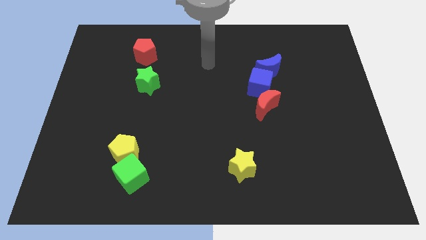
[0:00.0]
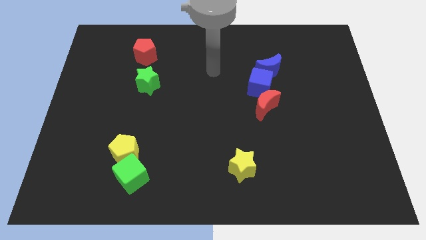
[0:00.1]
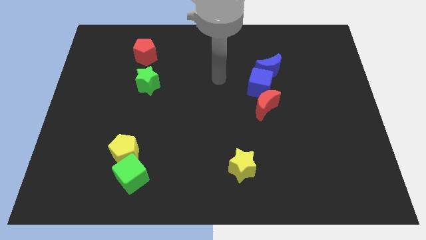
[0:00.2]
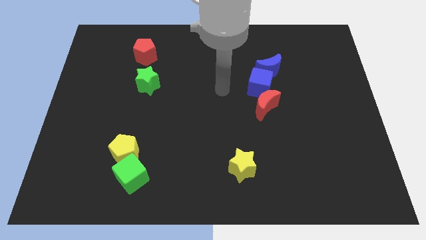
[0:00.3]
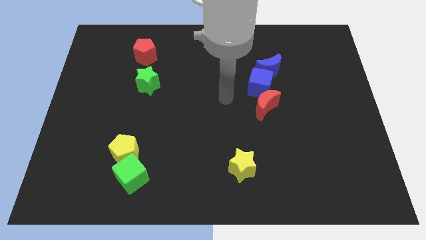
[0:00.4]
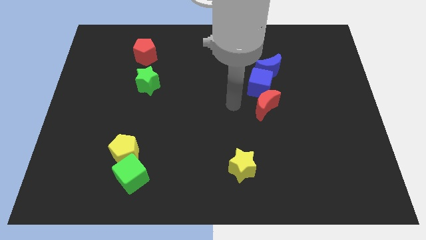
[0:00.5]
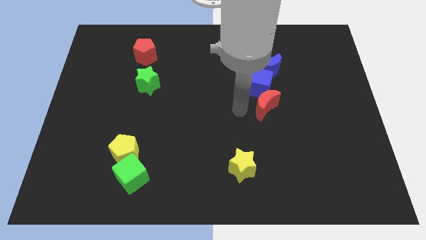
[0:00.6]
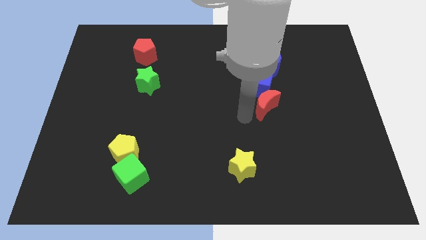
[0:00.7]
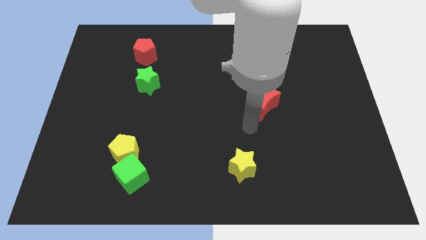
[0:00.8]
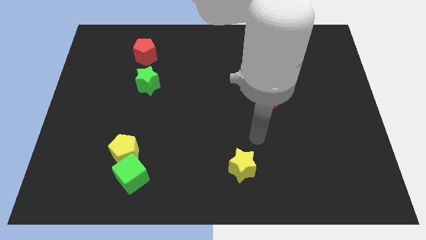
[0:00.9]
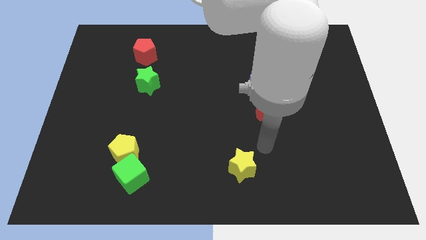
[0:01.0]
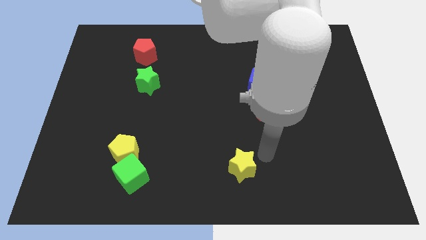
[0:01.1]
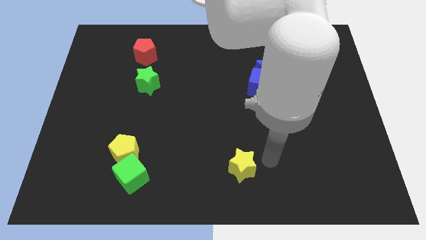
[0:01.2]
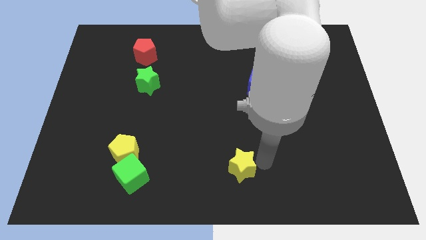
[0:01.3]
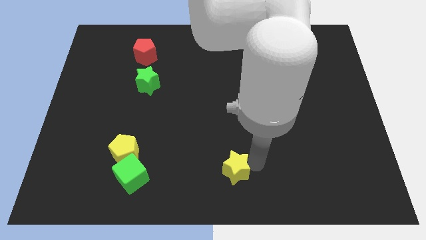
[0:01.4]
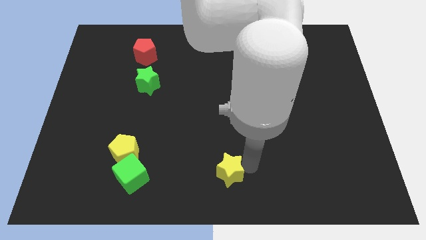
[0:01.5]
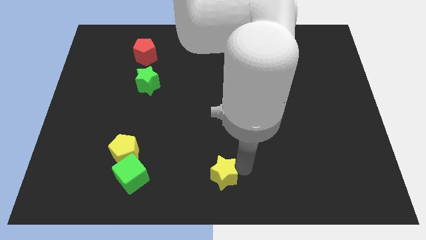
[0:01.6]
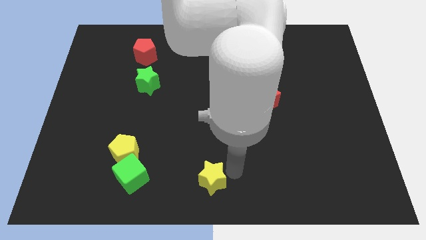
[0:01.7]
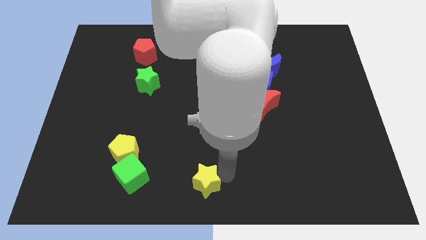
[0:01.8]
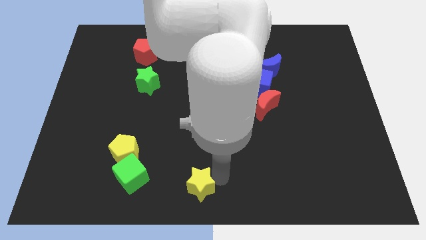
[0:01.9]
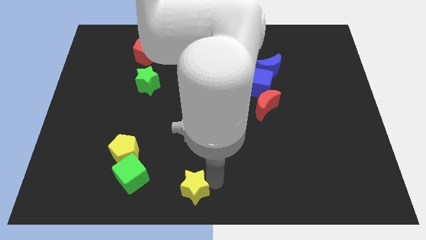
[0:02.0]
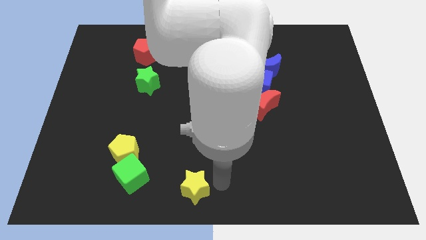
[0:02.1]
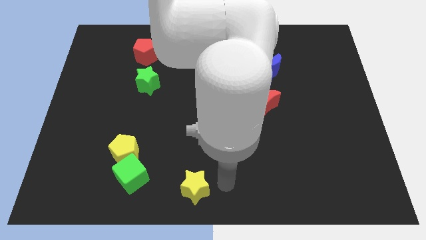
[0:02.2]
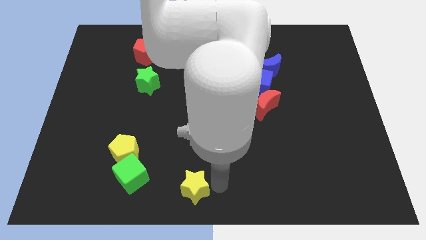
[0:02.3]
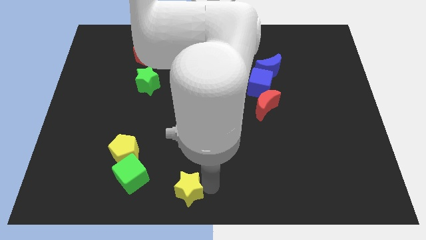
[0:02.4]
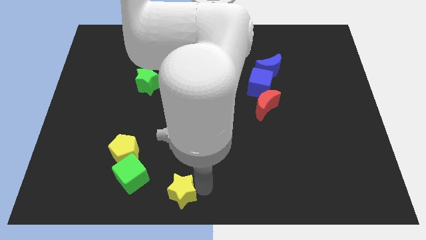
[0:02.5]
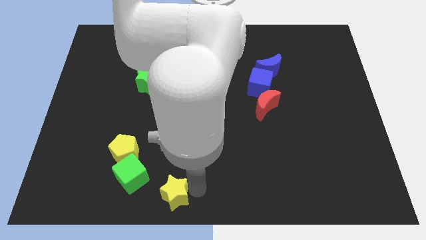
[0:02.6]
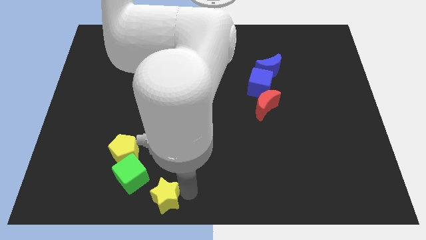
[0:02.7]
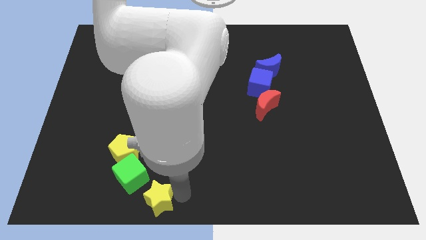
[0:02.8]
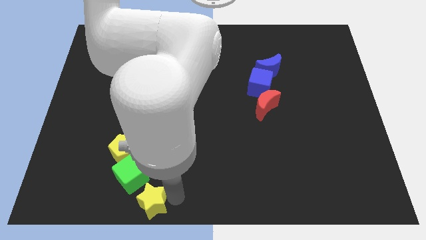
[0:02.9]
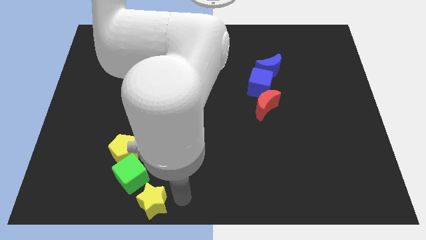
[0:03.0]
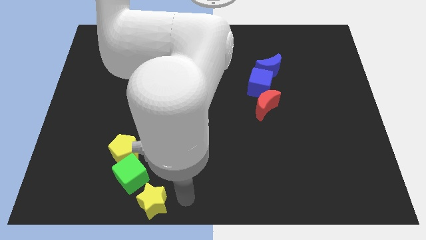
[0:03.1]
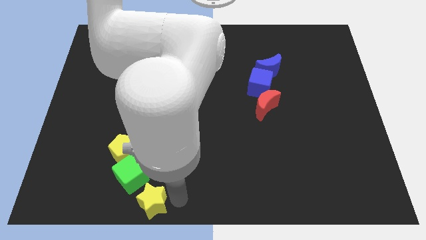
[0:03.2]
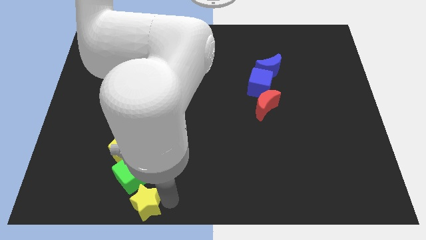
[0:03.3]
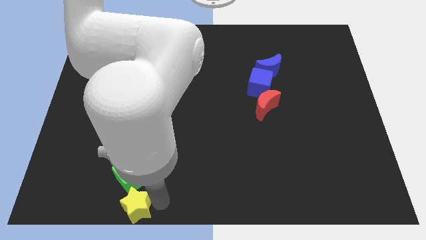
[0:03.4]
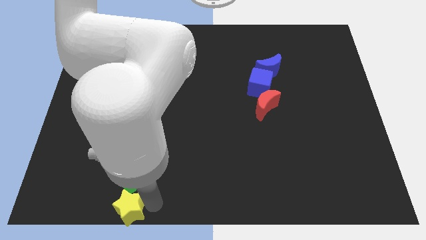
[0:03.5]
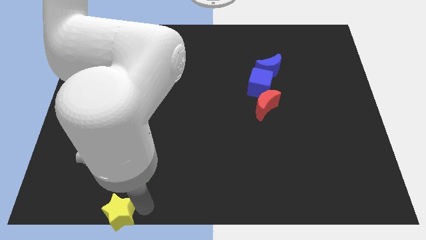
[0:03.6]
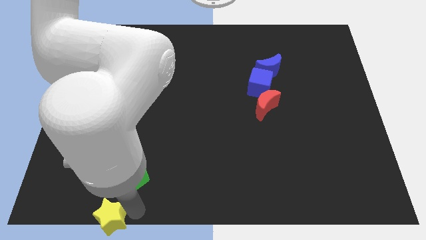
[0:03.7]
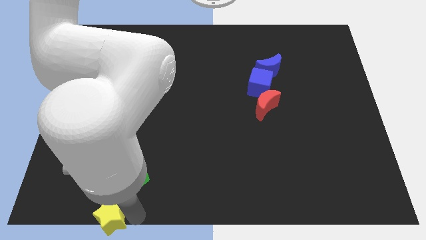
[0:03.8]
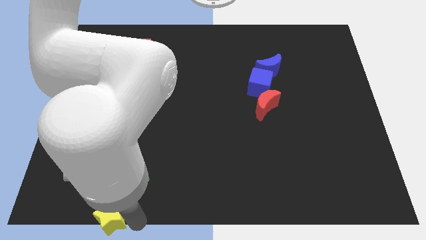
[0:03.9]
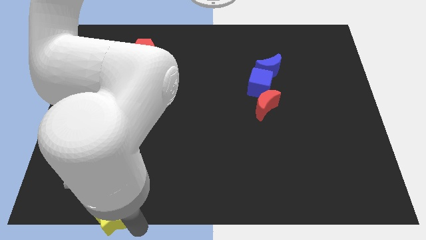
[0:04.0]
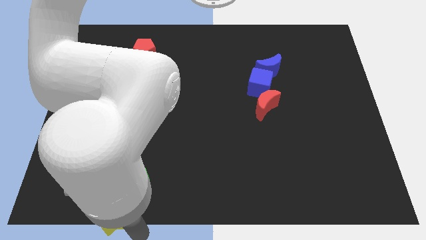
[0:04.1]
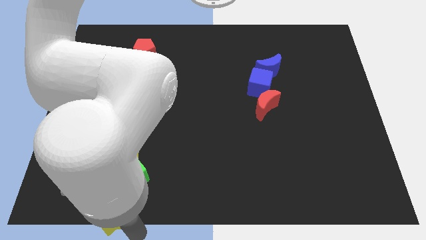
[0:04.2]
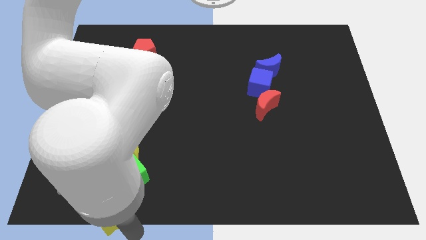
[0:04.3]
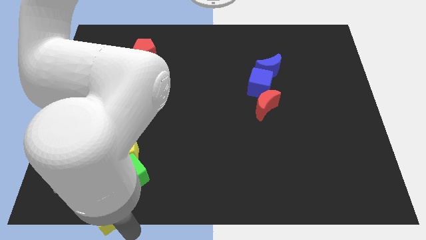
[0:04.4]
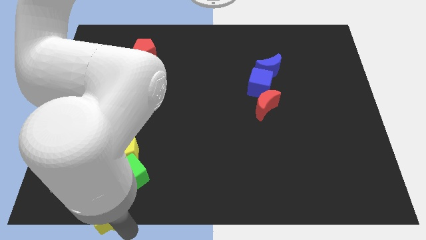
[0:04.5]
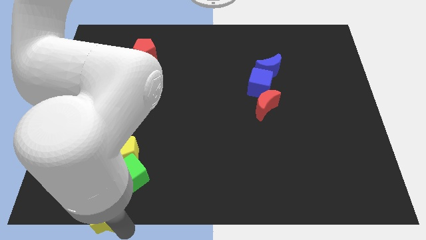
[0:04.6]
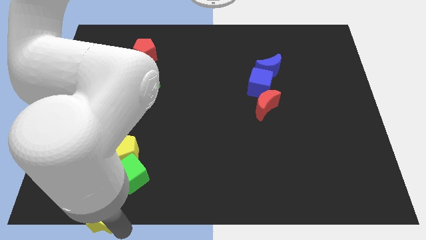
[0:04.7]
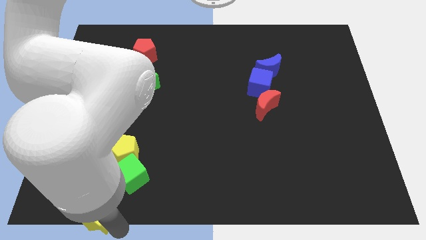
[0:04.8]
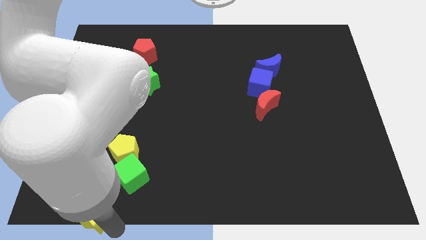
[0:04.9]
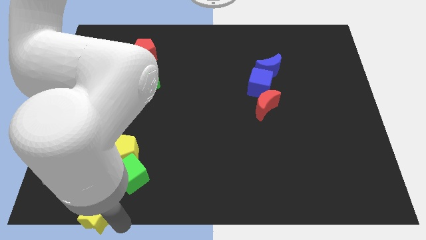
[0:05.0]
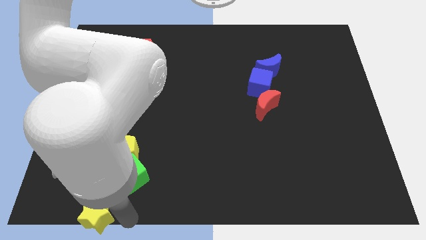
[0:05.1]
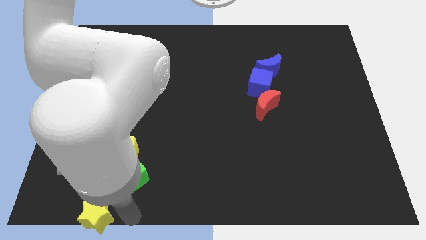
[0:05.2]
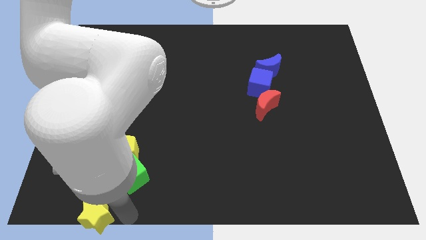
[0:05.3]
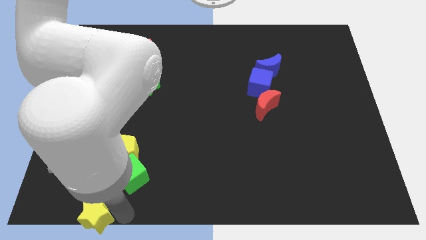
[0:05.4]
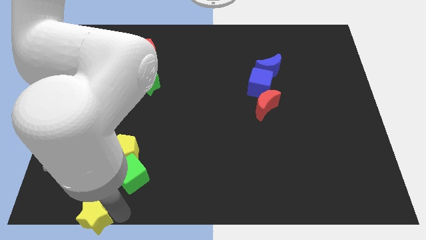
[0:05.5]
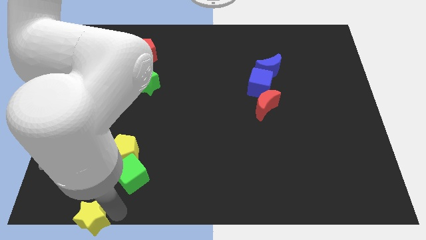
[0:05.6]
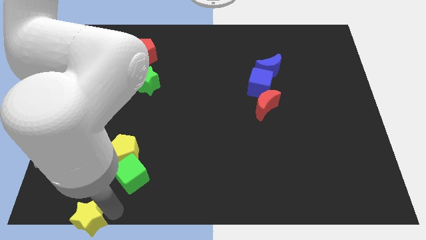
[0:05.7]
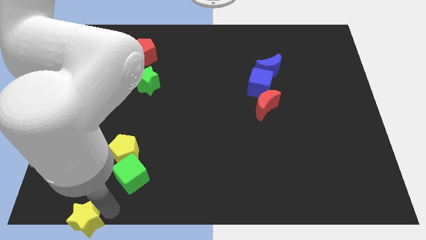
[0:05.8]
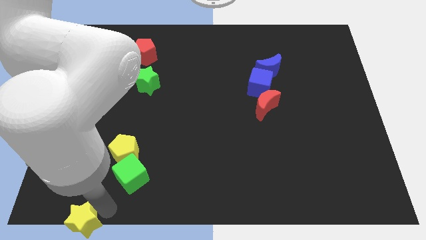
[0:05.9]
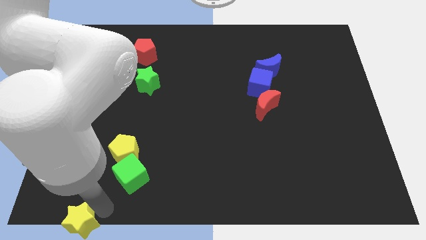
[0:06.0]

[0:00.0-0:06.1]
push the yellow star to the bottom left corner
